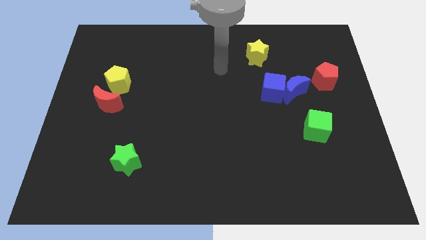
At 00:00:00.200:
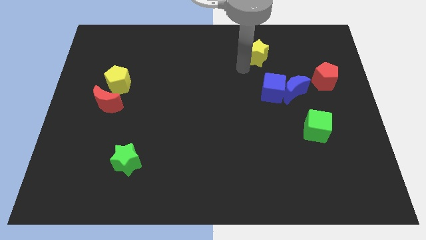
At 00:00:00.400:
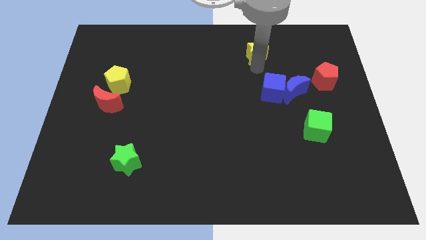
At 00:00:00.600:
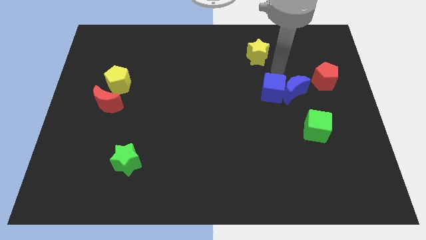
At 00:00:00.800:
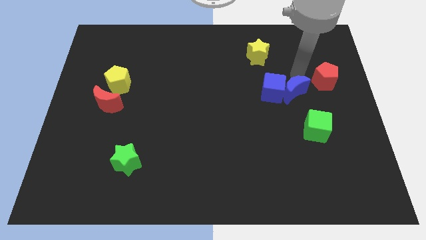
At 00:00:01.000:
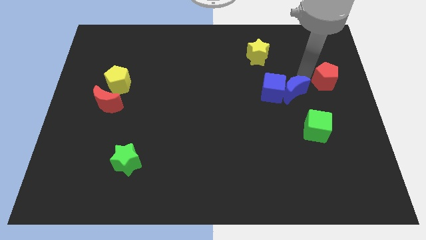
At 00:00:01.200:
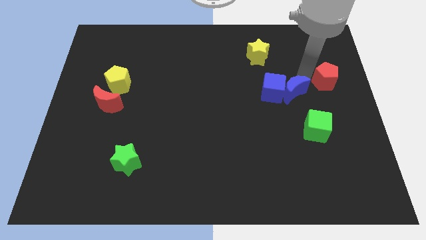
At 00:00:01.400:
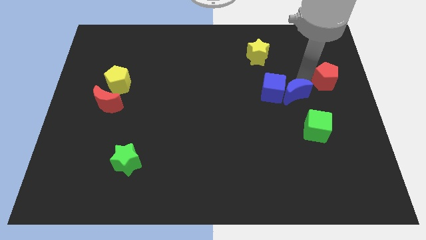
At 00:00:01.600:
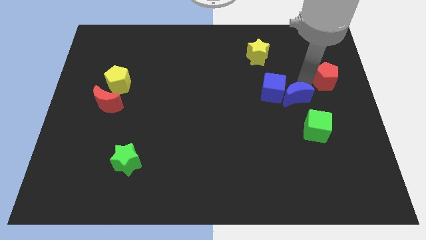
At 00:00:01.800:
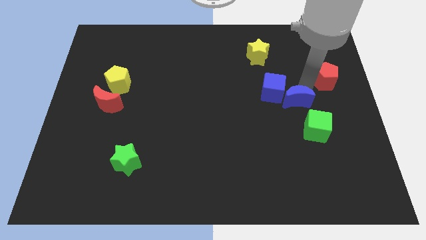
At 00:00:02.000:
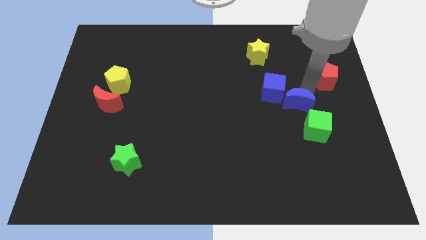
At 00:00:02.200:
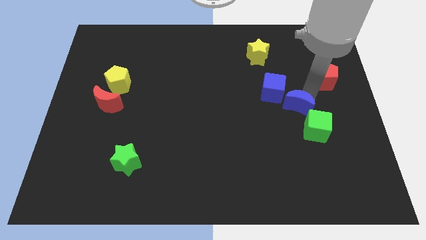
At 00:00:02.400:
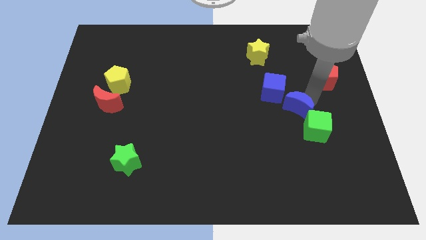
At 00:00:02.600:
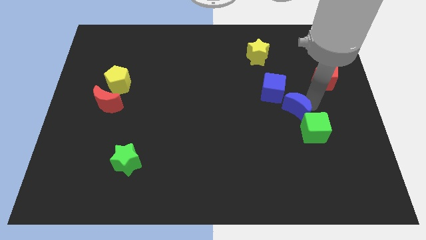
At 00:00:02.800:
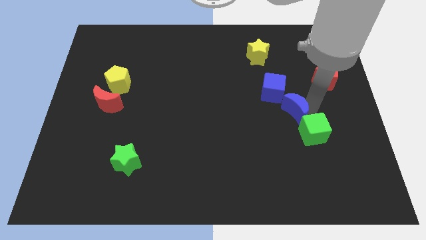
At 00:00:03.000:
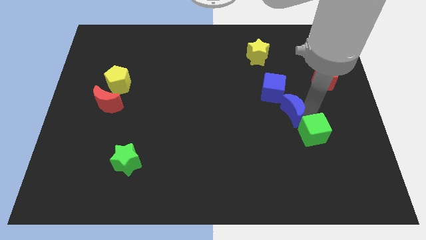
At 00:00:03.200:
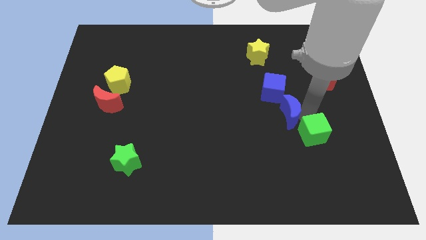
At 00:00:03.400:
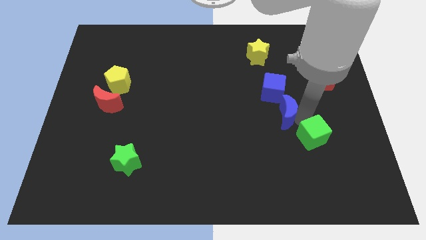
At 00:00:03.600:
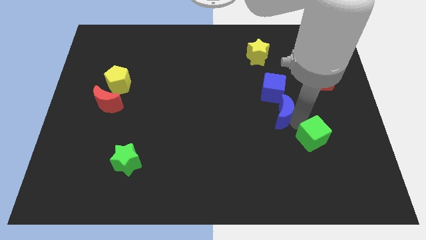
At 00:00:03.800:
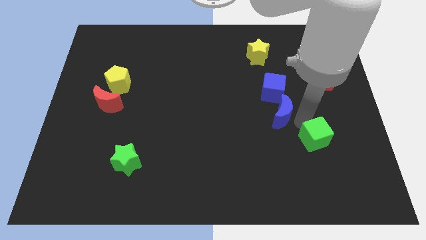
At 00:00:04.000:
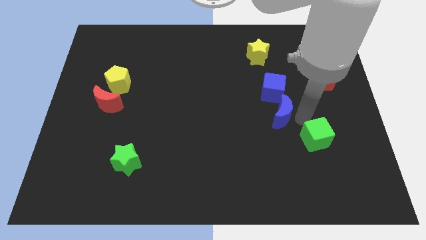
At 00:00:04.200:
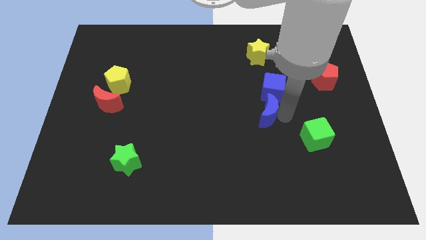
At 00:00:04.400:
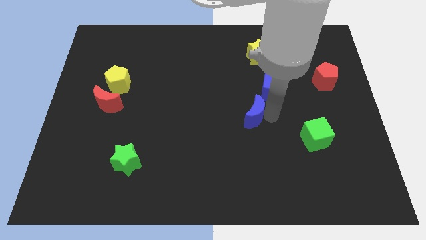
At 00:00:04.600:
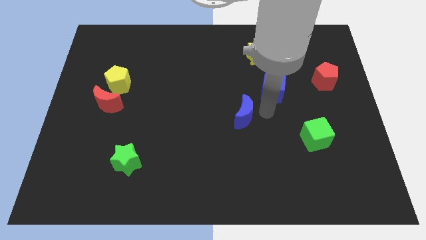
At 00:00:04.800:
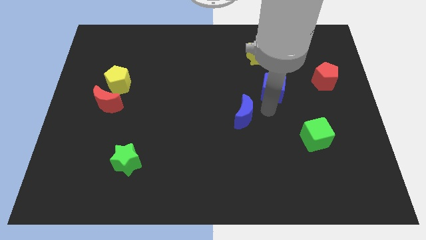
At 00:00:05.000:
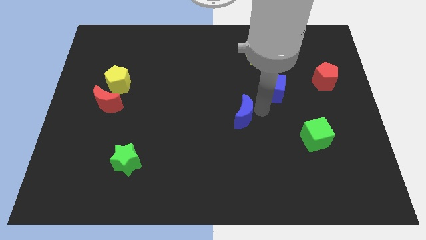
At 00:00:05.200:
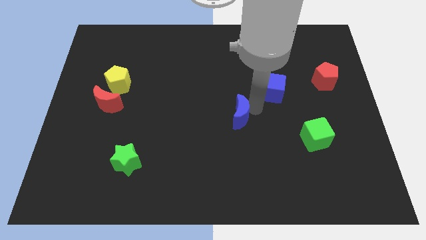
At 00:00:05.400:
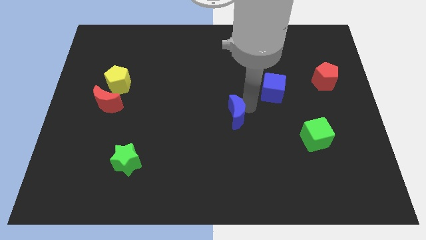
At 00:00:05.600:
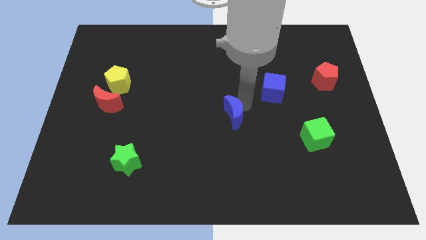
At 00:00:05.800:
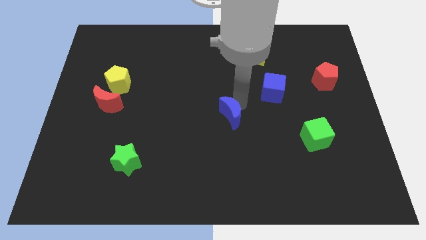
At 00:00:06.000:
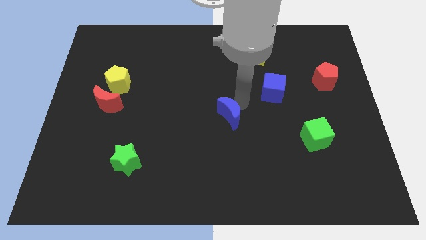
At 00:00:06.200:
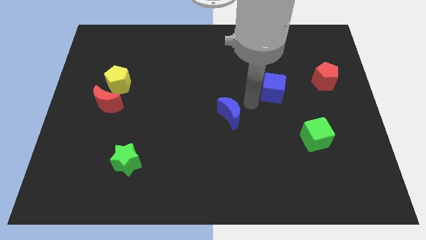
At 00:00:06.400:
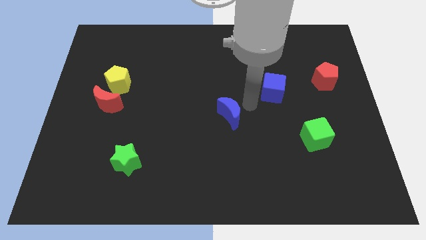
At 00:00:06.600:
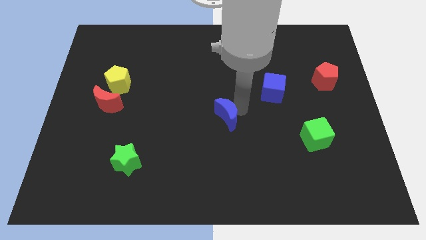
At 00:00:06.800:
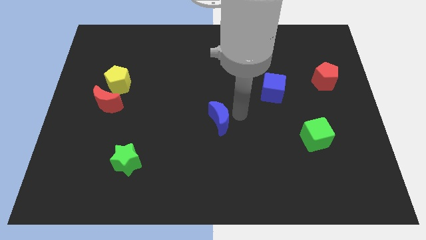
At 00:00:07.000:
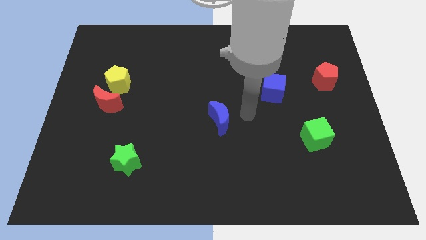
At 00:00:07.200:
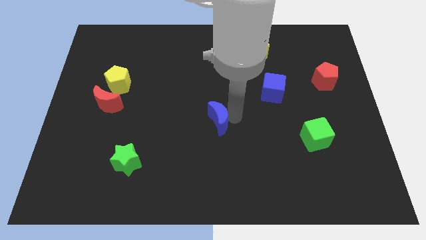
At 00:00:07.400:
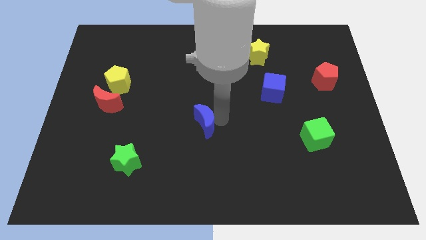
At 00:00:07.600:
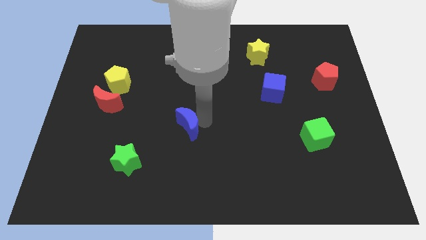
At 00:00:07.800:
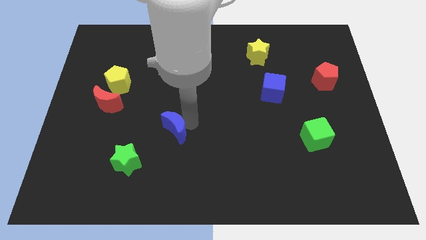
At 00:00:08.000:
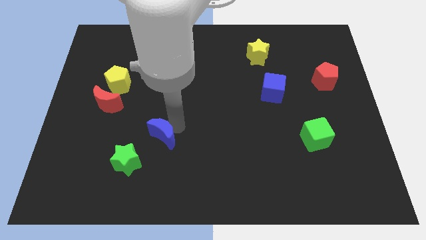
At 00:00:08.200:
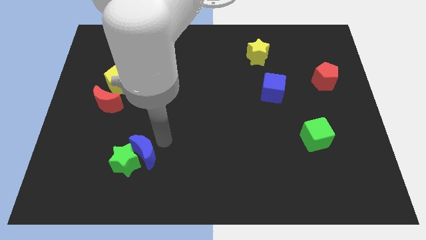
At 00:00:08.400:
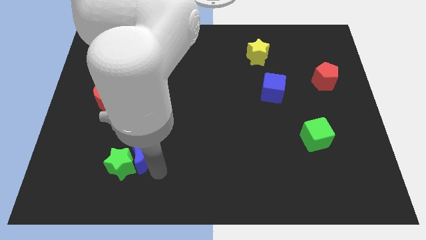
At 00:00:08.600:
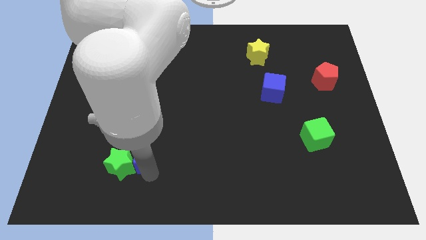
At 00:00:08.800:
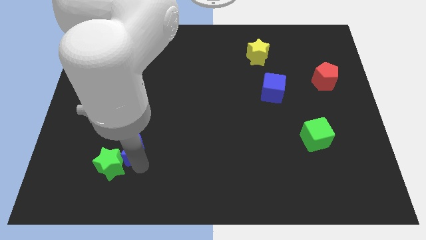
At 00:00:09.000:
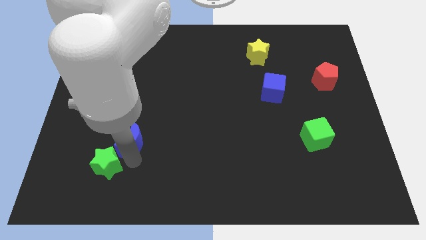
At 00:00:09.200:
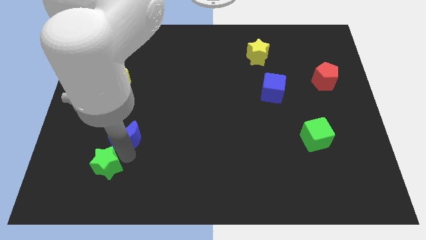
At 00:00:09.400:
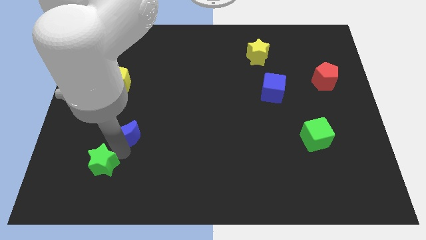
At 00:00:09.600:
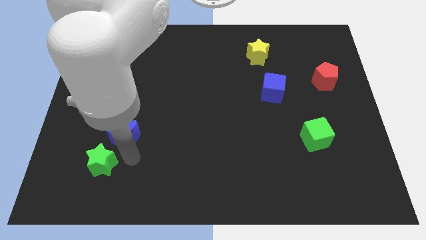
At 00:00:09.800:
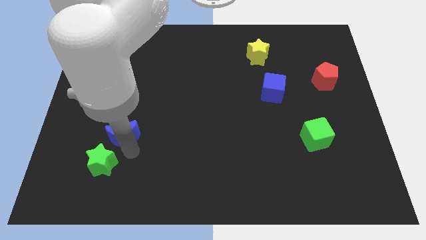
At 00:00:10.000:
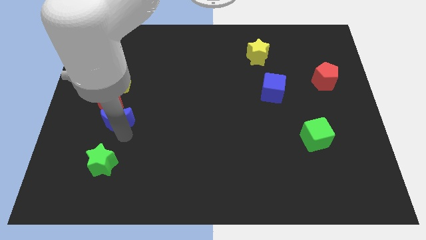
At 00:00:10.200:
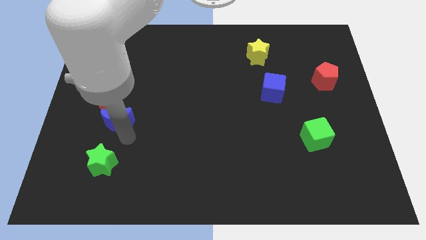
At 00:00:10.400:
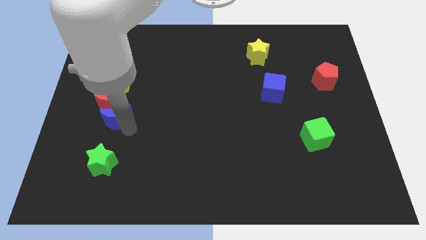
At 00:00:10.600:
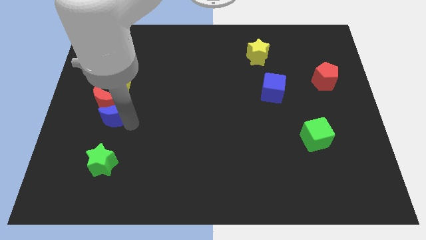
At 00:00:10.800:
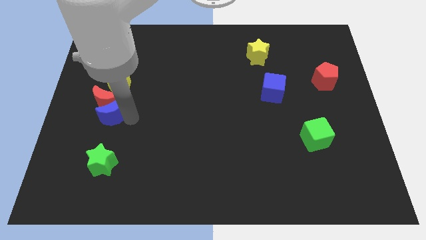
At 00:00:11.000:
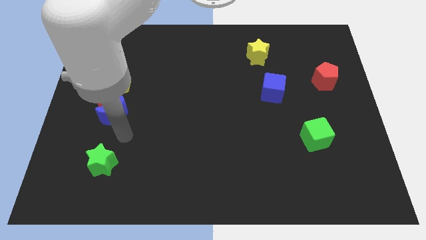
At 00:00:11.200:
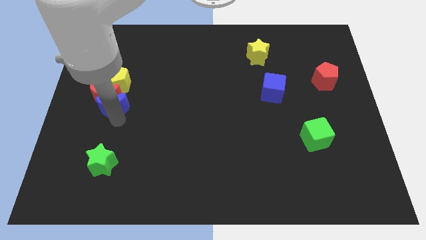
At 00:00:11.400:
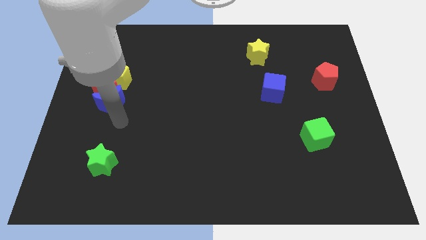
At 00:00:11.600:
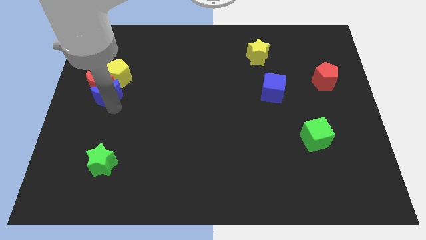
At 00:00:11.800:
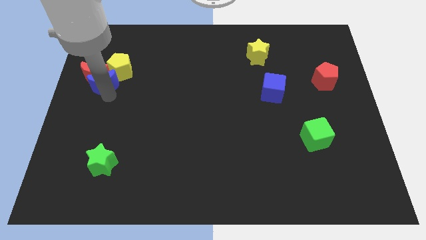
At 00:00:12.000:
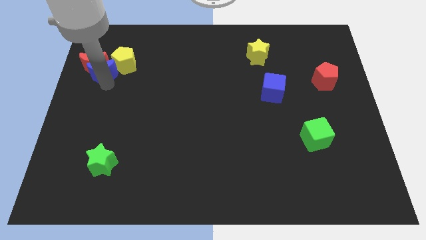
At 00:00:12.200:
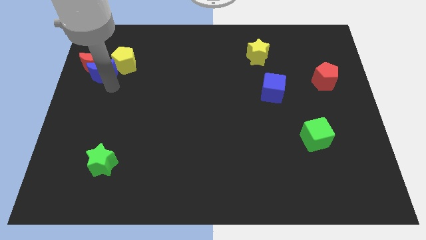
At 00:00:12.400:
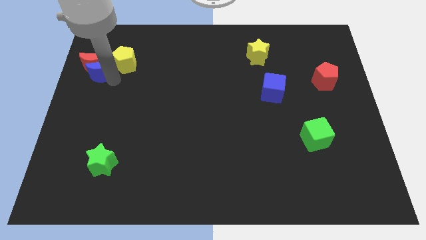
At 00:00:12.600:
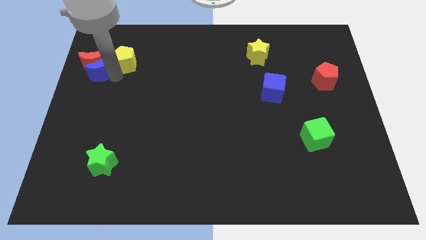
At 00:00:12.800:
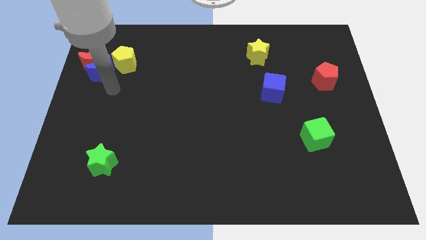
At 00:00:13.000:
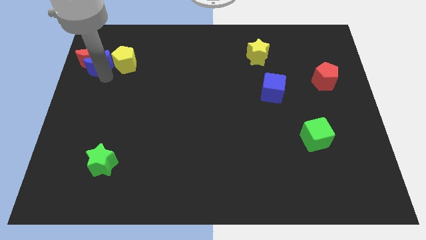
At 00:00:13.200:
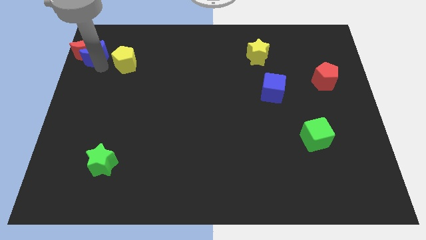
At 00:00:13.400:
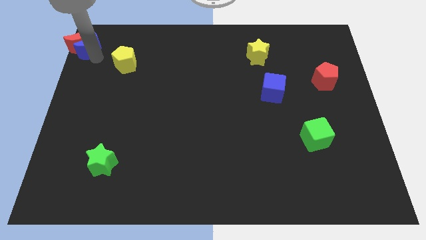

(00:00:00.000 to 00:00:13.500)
slide the blue moon to the top left
